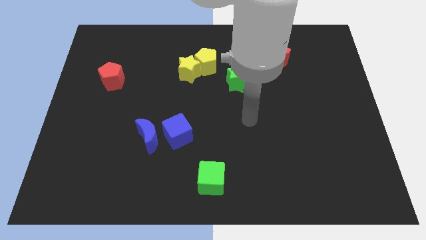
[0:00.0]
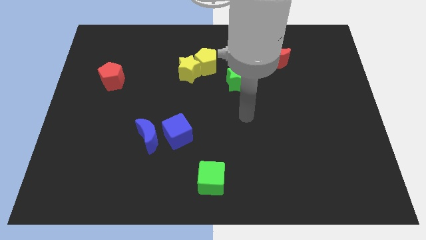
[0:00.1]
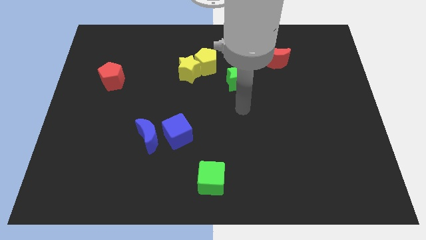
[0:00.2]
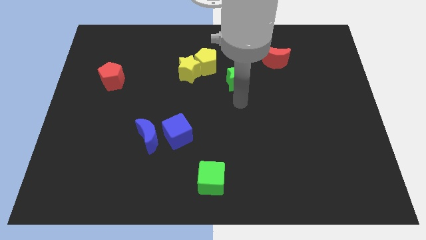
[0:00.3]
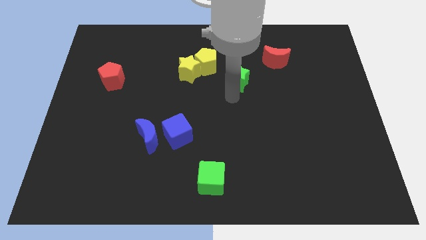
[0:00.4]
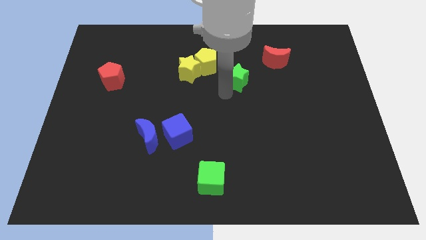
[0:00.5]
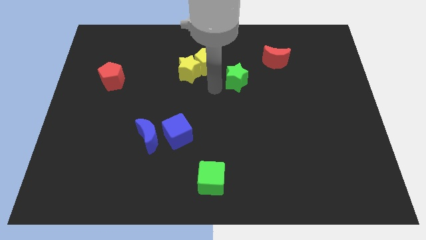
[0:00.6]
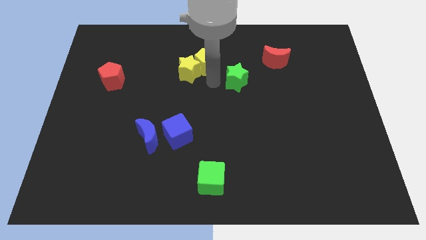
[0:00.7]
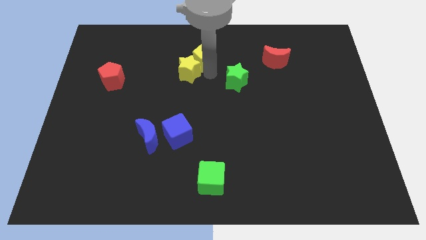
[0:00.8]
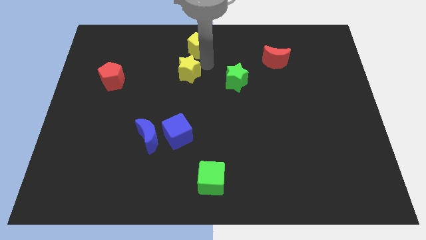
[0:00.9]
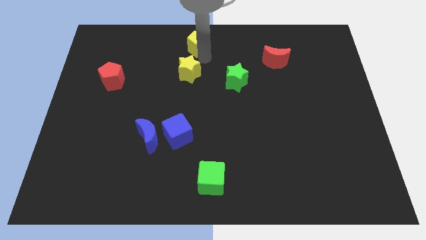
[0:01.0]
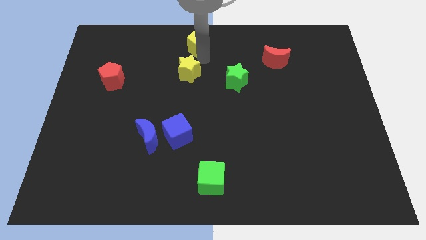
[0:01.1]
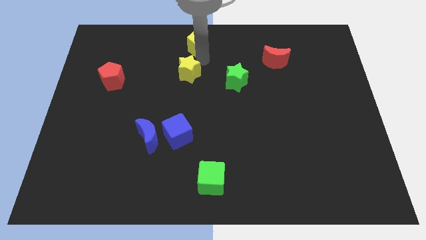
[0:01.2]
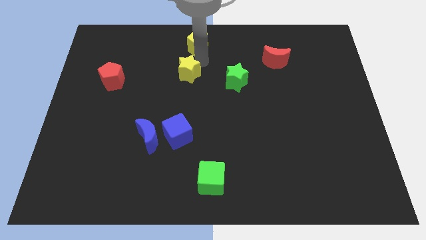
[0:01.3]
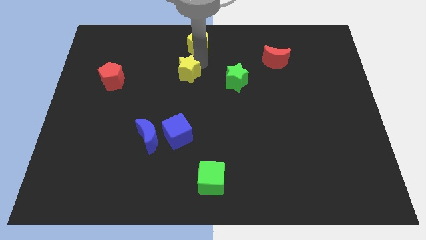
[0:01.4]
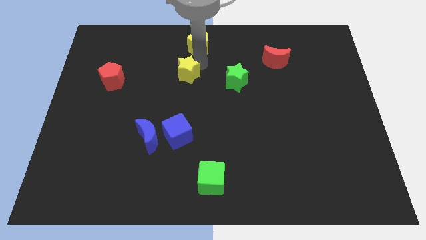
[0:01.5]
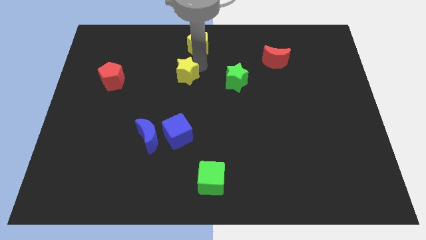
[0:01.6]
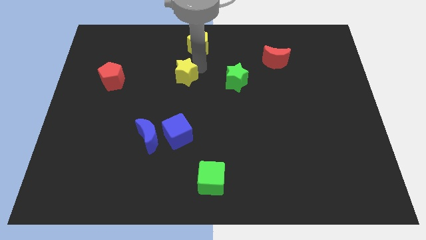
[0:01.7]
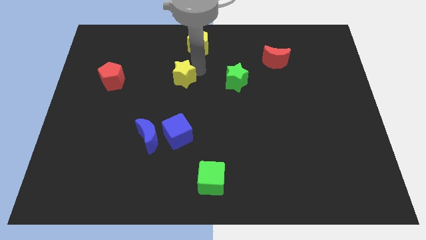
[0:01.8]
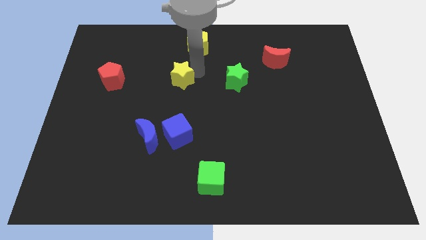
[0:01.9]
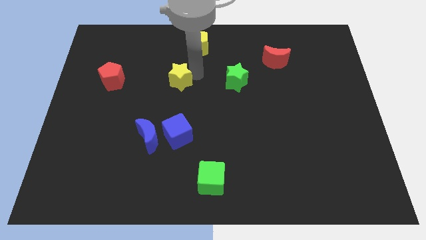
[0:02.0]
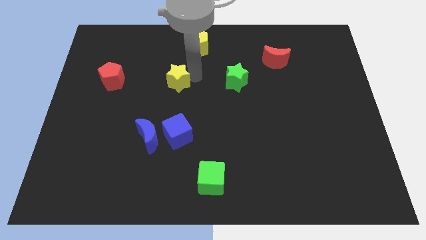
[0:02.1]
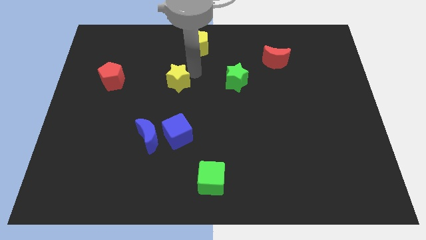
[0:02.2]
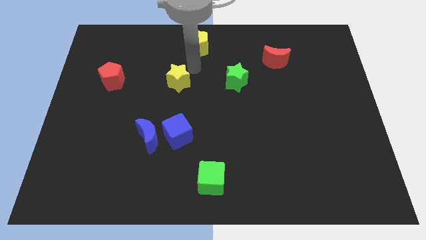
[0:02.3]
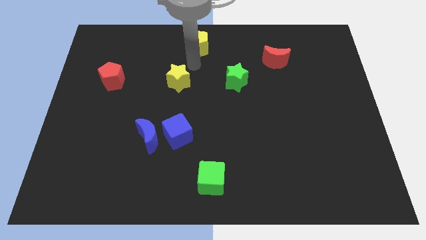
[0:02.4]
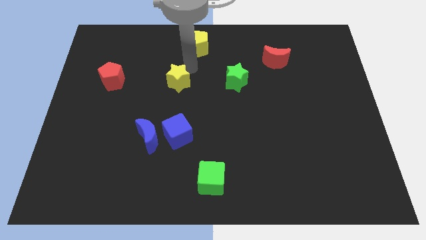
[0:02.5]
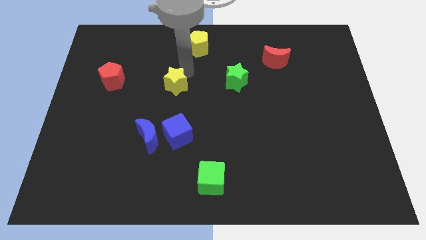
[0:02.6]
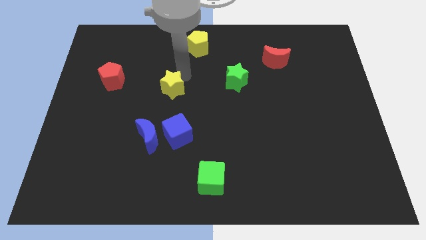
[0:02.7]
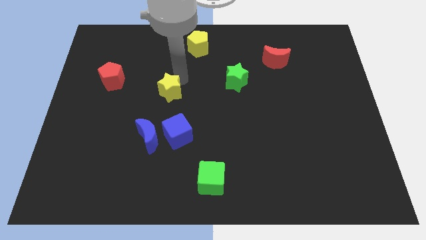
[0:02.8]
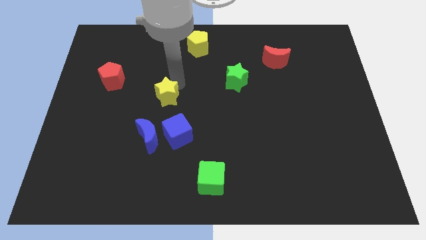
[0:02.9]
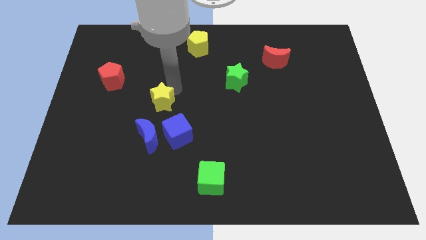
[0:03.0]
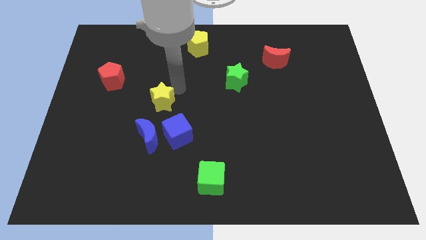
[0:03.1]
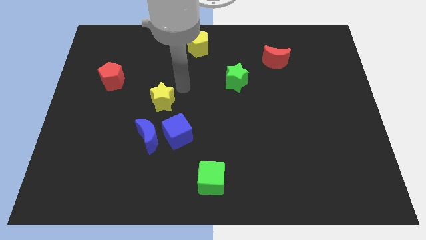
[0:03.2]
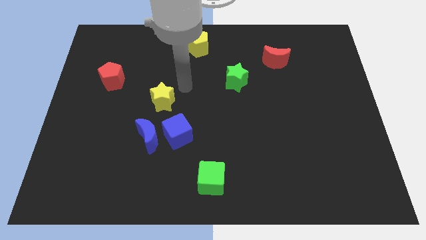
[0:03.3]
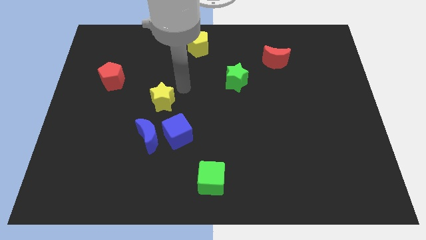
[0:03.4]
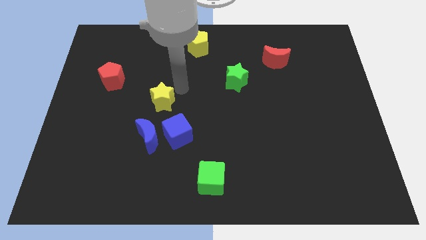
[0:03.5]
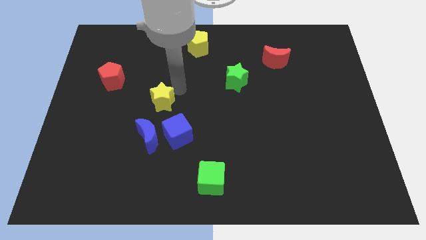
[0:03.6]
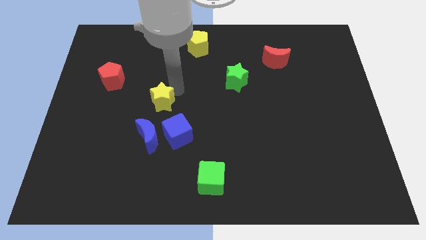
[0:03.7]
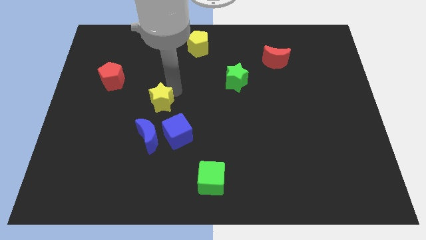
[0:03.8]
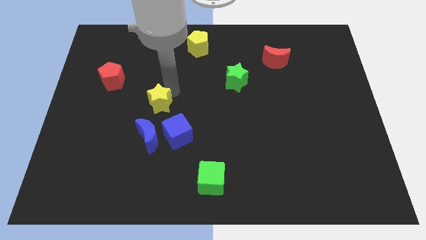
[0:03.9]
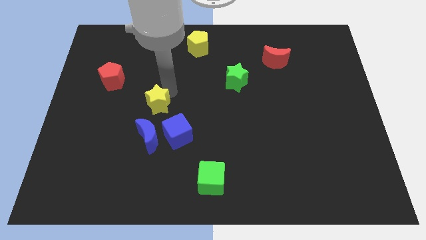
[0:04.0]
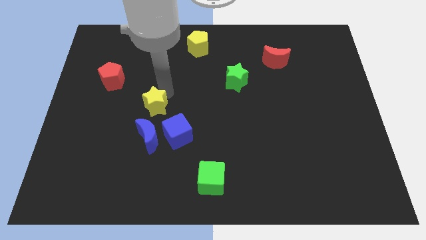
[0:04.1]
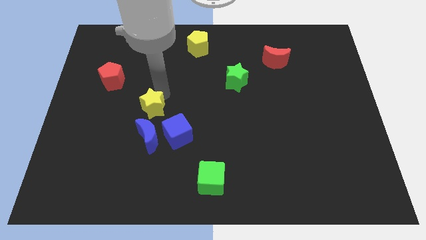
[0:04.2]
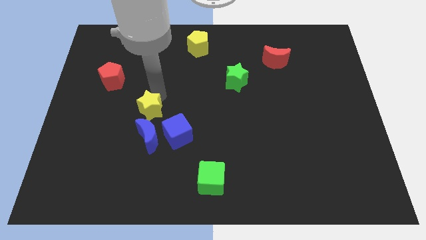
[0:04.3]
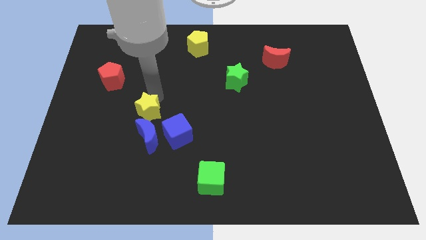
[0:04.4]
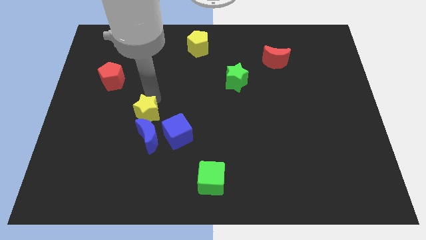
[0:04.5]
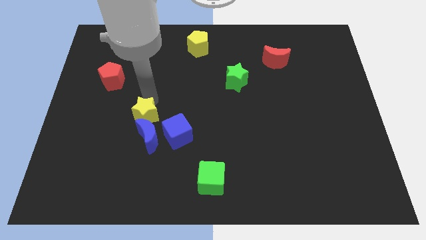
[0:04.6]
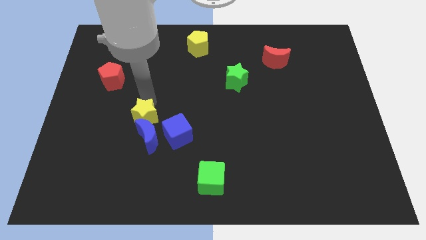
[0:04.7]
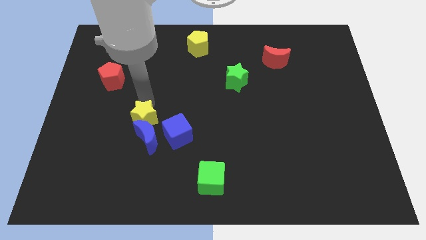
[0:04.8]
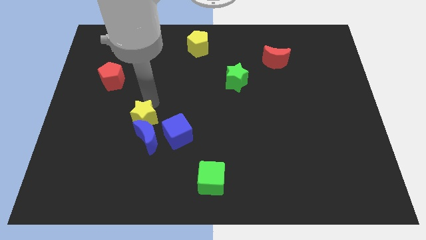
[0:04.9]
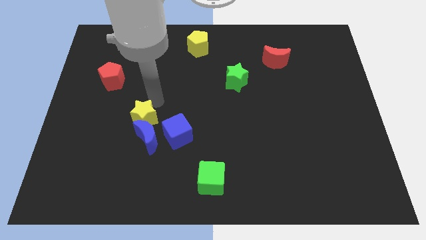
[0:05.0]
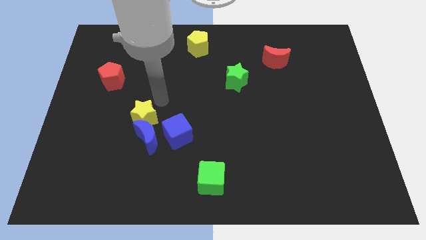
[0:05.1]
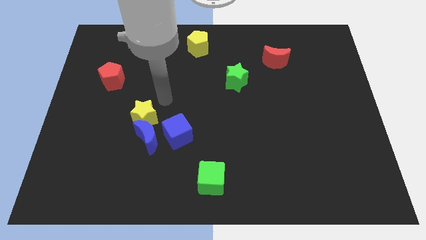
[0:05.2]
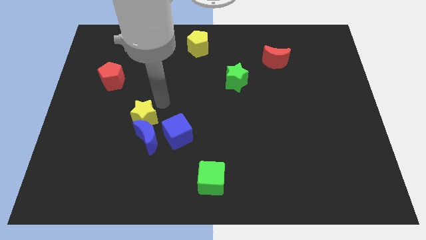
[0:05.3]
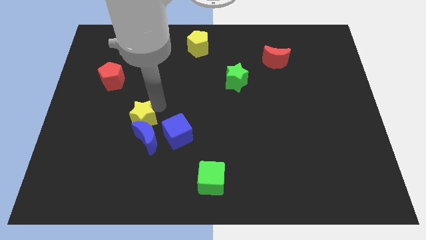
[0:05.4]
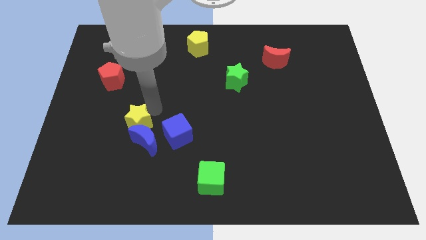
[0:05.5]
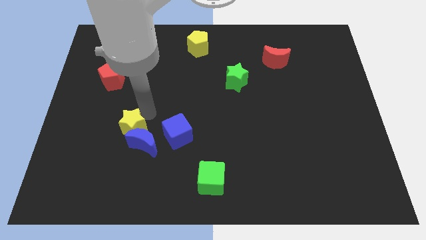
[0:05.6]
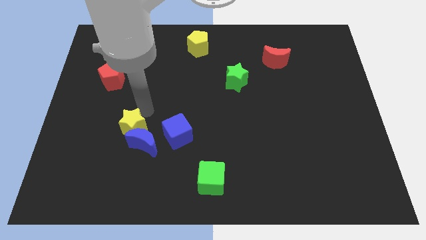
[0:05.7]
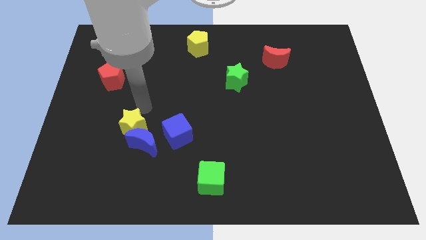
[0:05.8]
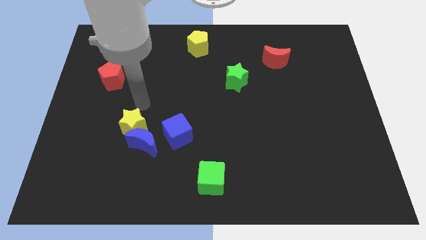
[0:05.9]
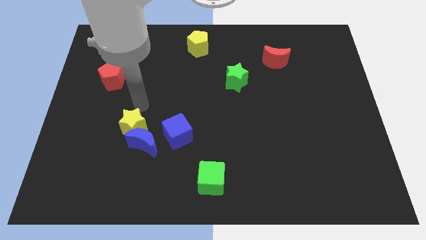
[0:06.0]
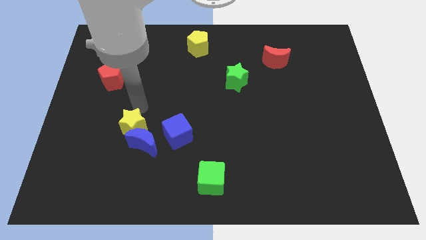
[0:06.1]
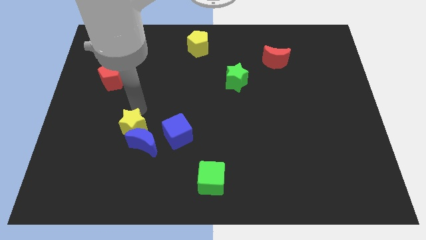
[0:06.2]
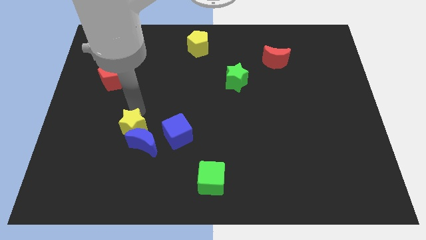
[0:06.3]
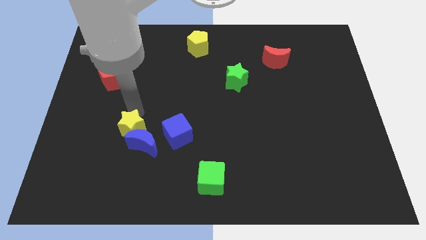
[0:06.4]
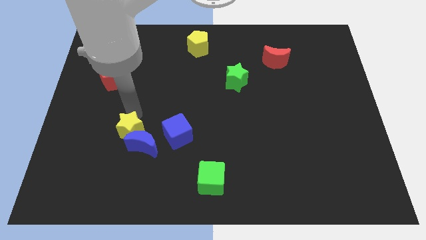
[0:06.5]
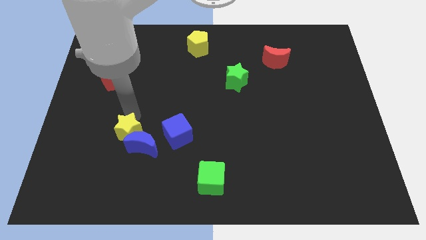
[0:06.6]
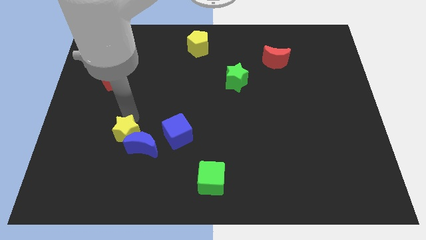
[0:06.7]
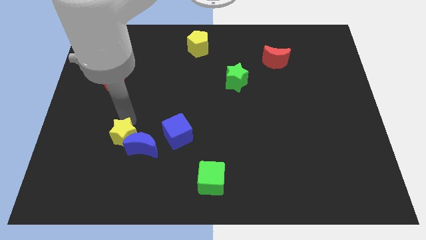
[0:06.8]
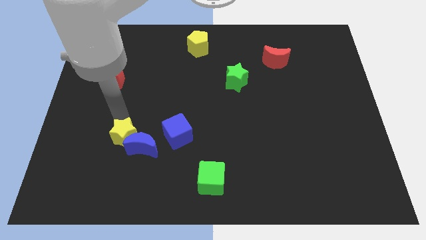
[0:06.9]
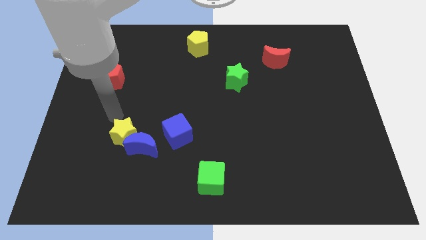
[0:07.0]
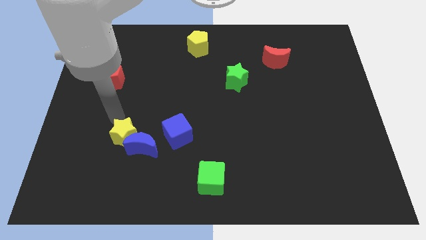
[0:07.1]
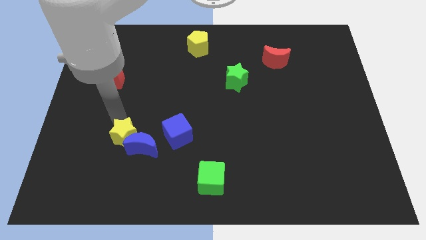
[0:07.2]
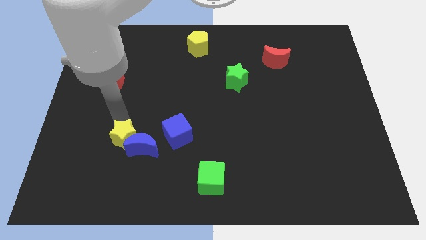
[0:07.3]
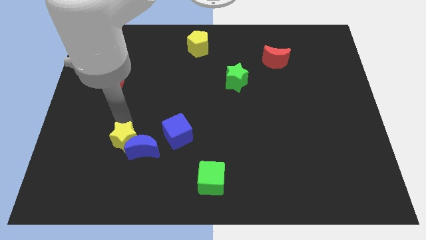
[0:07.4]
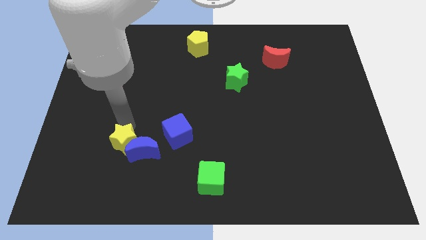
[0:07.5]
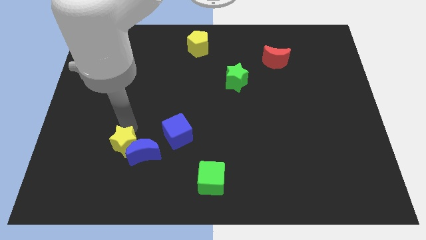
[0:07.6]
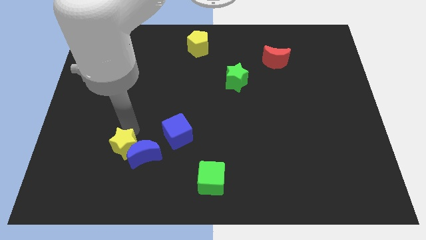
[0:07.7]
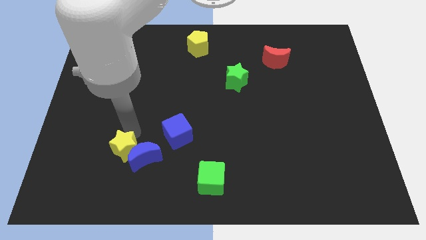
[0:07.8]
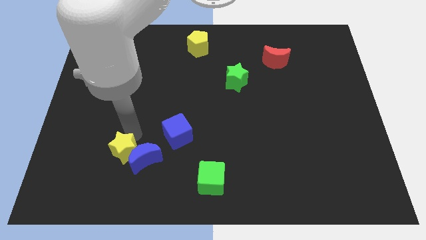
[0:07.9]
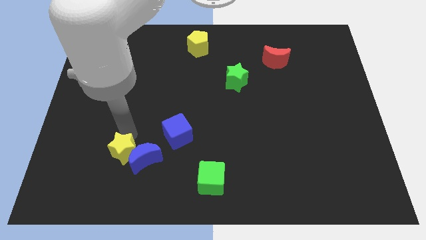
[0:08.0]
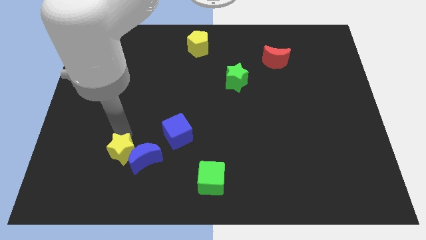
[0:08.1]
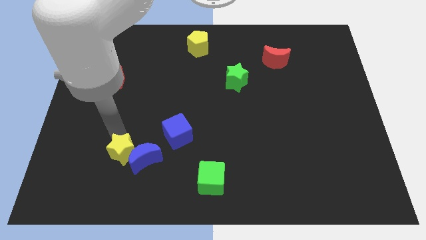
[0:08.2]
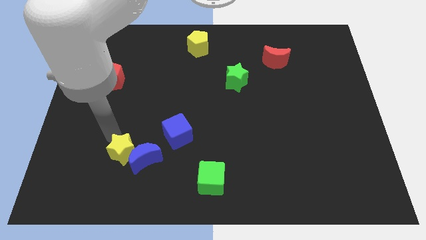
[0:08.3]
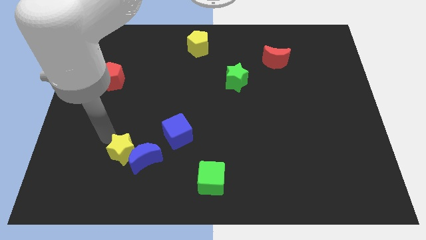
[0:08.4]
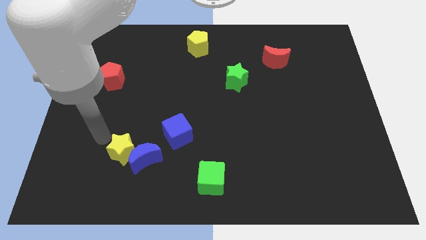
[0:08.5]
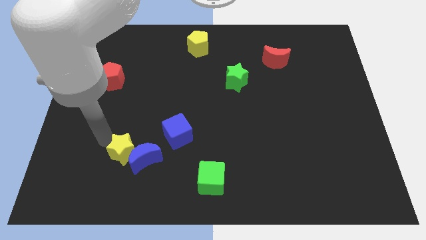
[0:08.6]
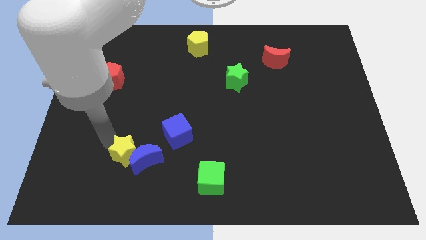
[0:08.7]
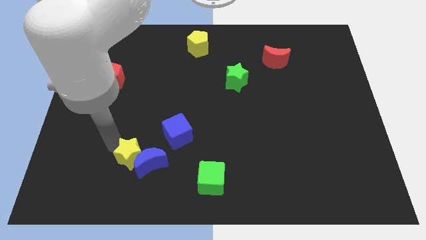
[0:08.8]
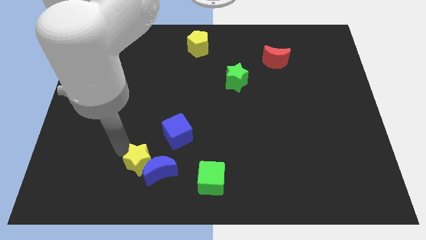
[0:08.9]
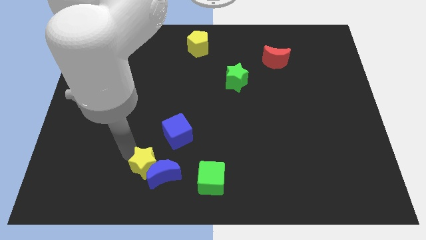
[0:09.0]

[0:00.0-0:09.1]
move the yellow star to the left side of the green cube
